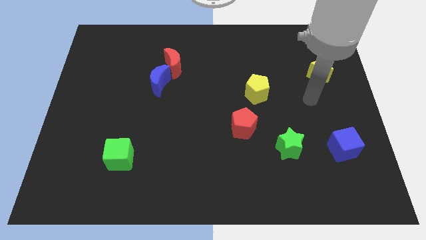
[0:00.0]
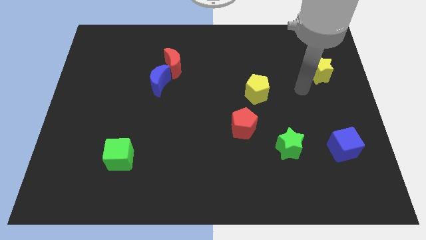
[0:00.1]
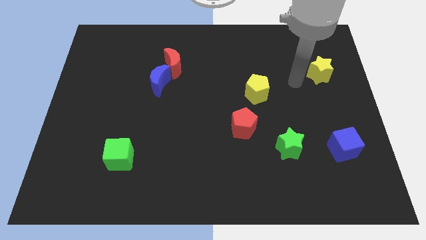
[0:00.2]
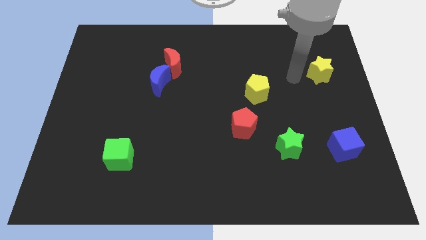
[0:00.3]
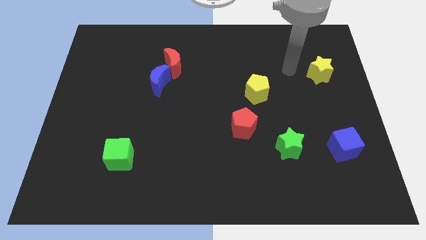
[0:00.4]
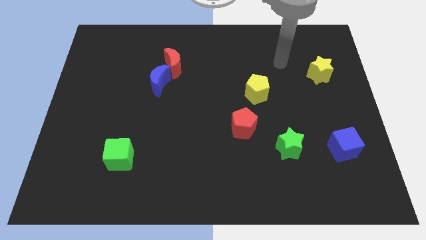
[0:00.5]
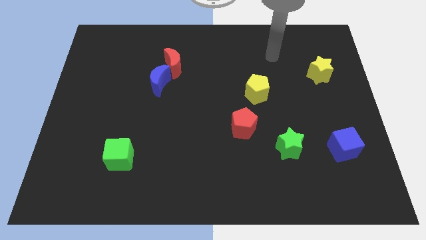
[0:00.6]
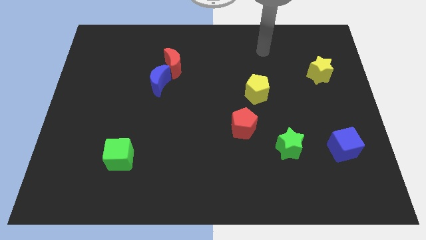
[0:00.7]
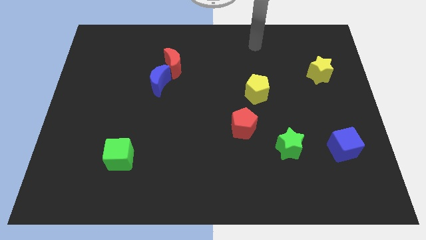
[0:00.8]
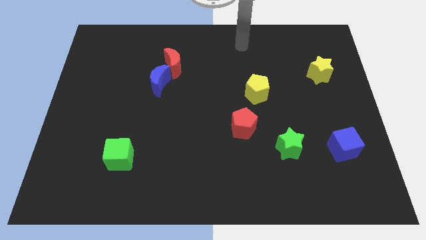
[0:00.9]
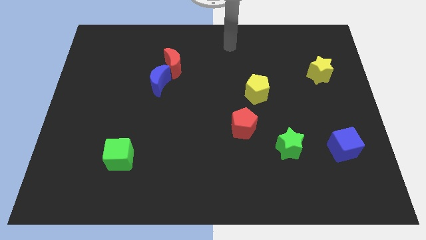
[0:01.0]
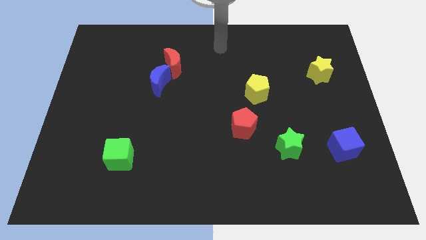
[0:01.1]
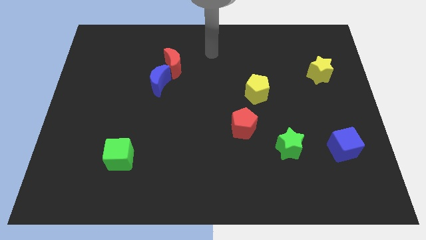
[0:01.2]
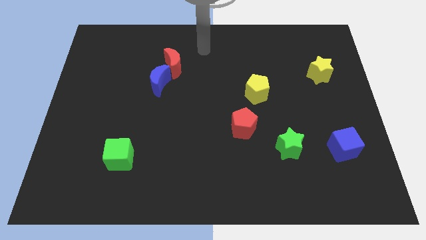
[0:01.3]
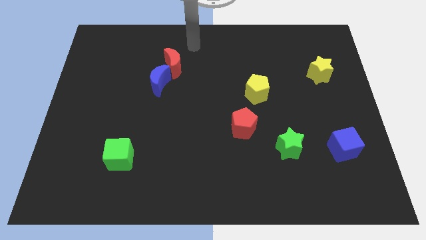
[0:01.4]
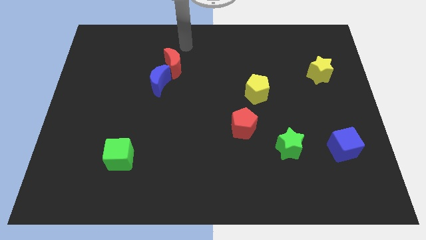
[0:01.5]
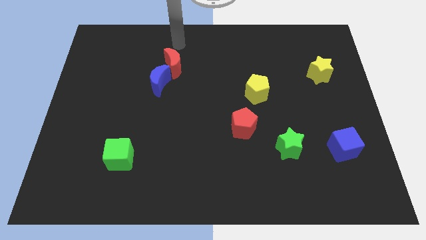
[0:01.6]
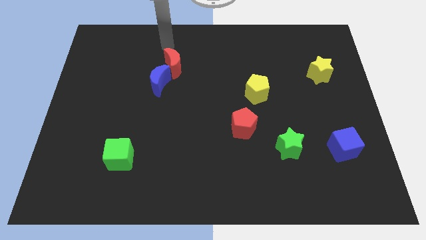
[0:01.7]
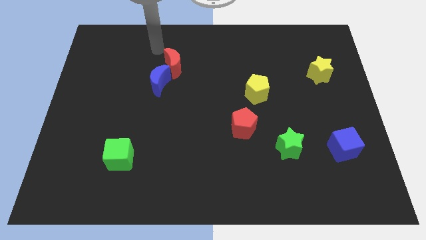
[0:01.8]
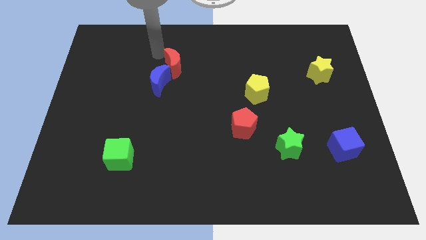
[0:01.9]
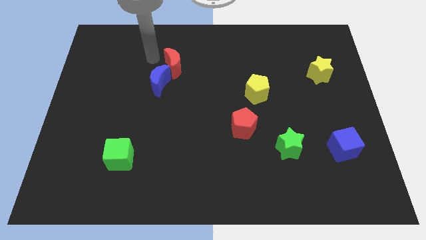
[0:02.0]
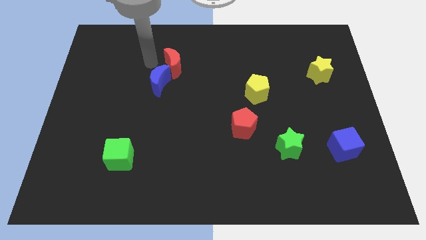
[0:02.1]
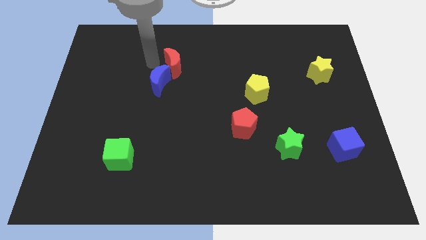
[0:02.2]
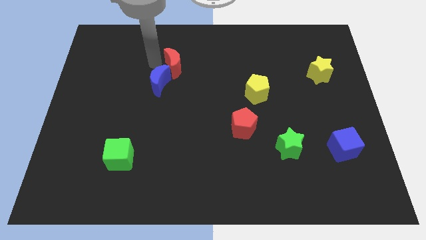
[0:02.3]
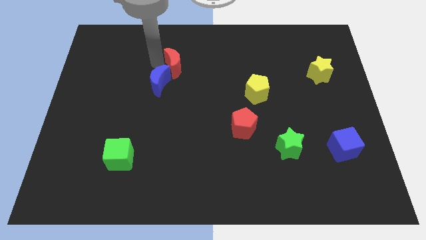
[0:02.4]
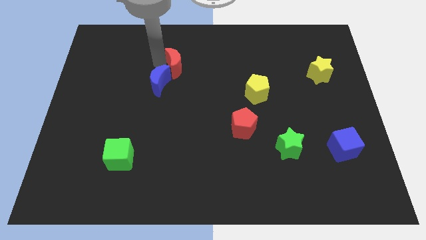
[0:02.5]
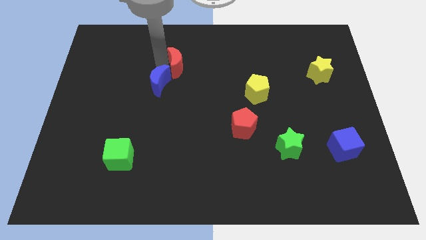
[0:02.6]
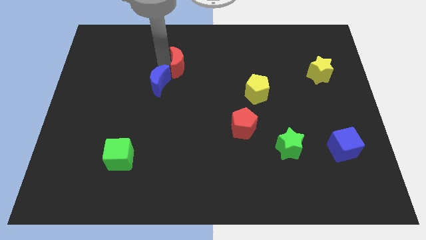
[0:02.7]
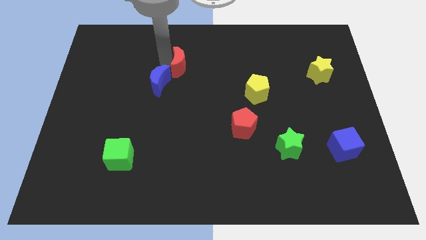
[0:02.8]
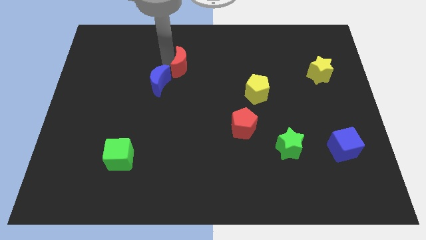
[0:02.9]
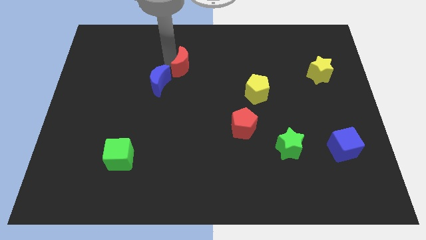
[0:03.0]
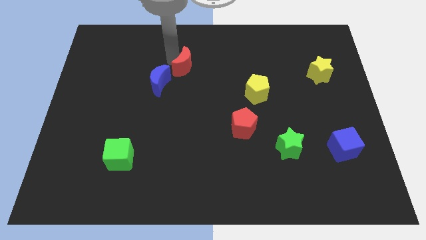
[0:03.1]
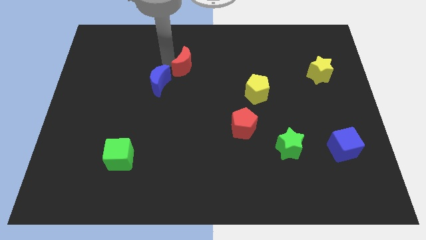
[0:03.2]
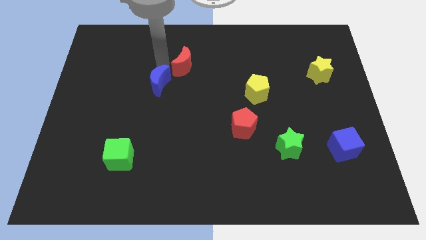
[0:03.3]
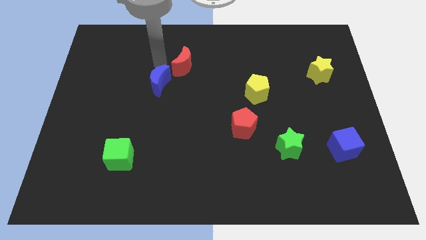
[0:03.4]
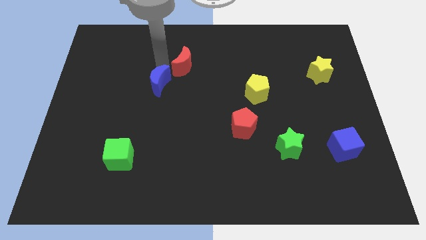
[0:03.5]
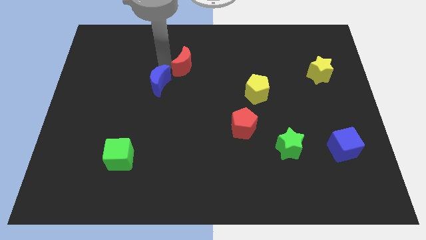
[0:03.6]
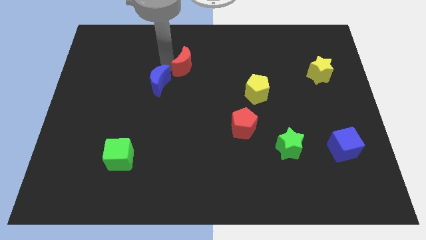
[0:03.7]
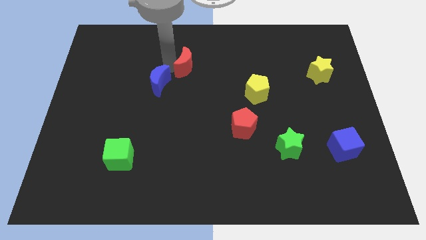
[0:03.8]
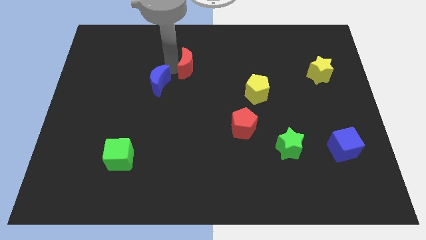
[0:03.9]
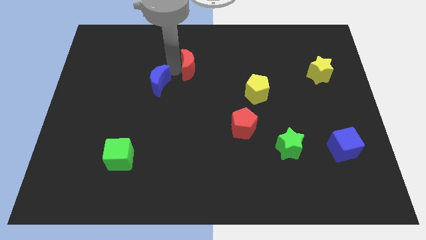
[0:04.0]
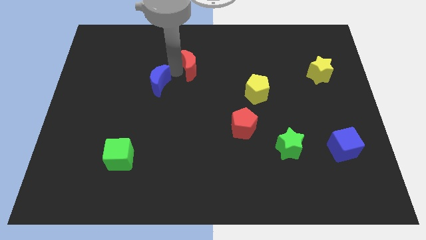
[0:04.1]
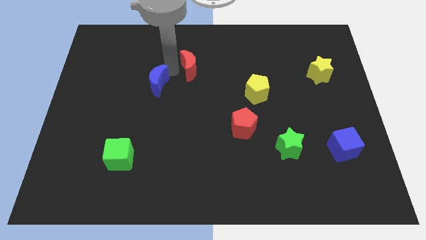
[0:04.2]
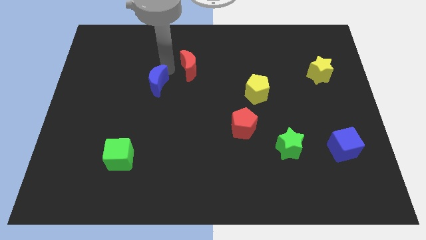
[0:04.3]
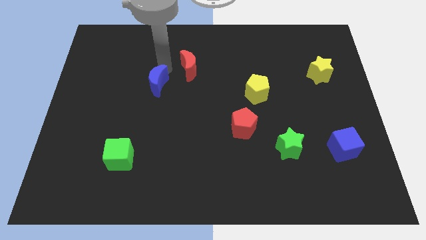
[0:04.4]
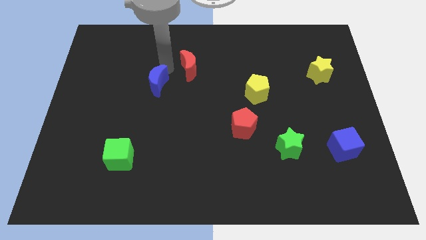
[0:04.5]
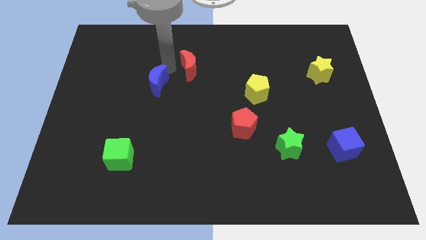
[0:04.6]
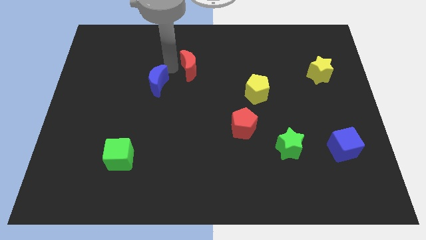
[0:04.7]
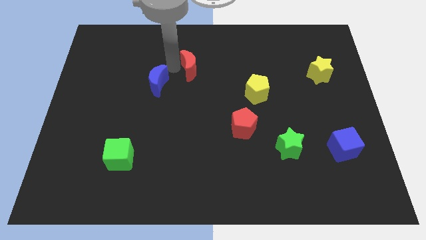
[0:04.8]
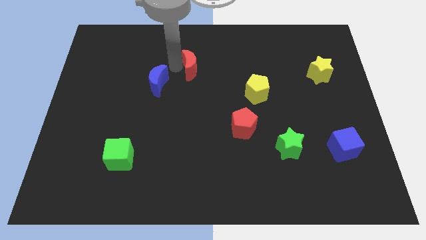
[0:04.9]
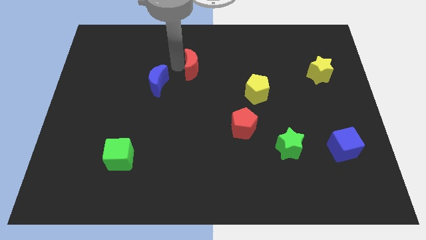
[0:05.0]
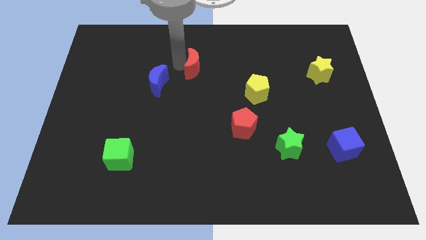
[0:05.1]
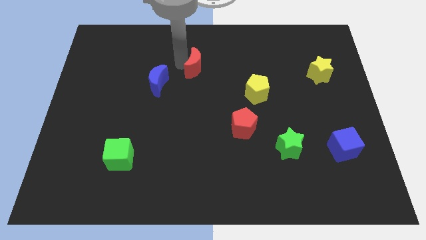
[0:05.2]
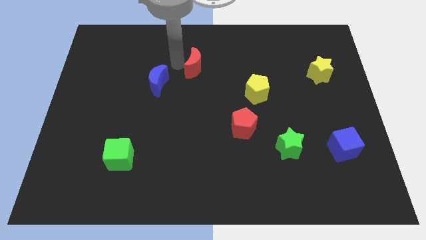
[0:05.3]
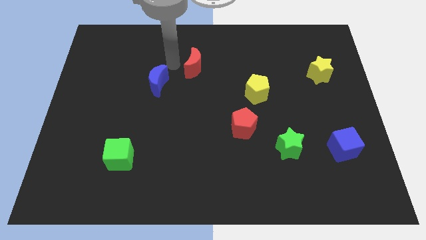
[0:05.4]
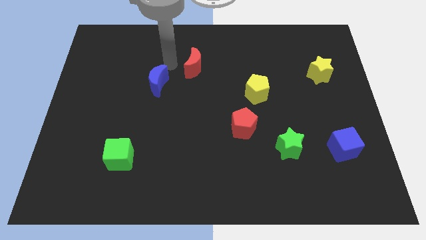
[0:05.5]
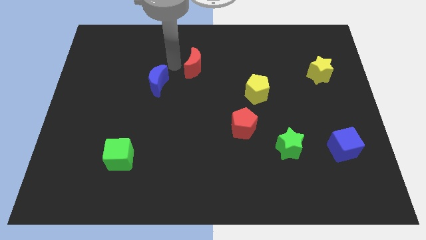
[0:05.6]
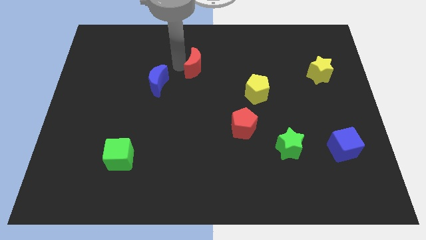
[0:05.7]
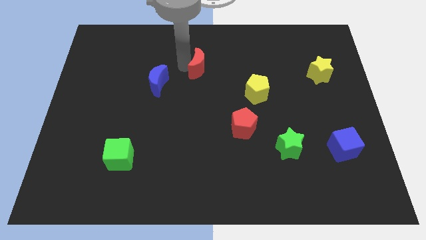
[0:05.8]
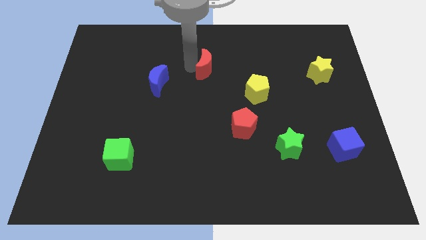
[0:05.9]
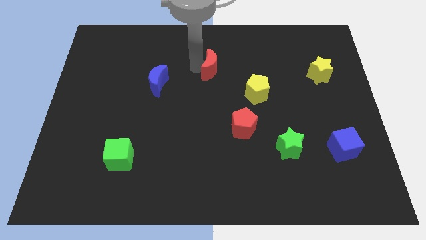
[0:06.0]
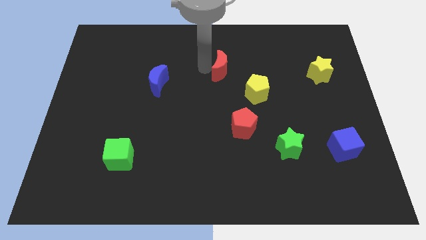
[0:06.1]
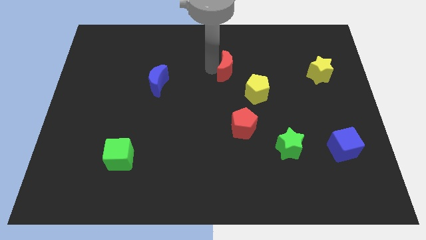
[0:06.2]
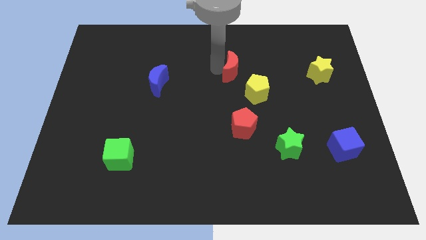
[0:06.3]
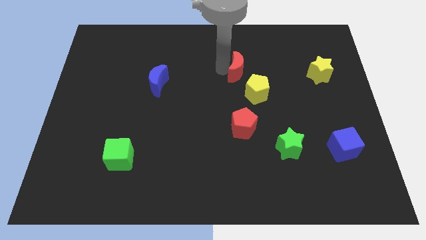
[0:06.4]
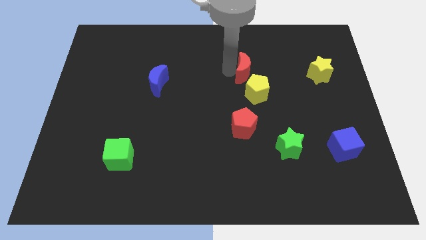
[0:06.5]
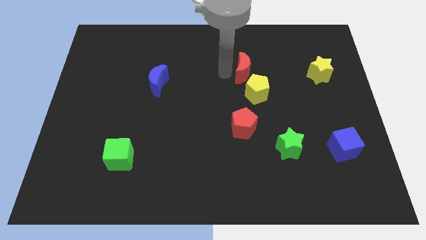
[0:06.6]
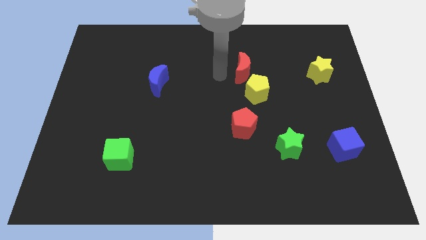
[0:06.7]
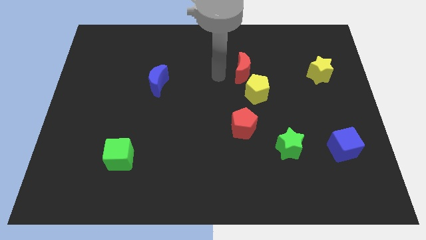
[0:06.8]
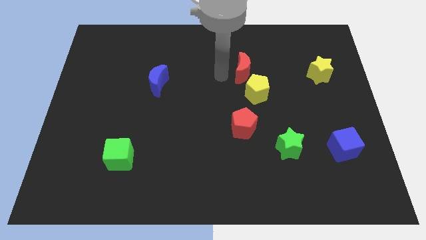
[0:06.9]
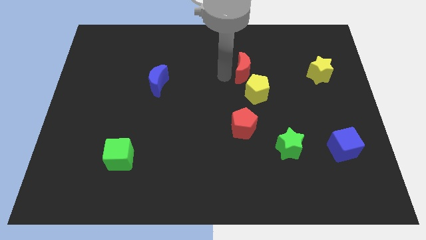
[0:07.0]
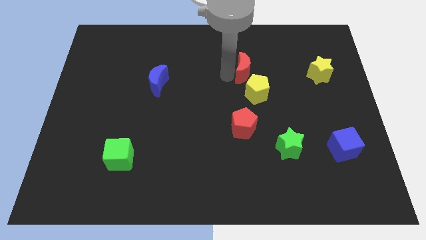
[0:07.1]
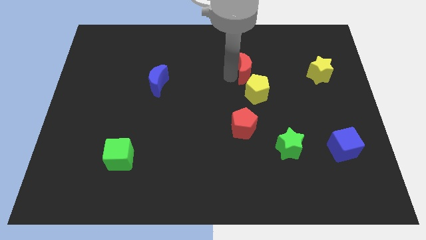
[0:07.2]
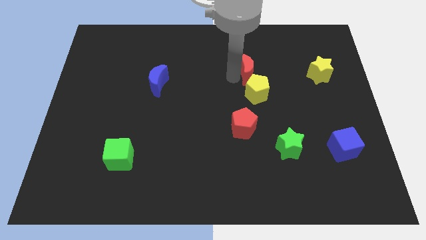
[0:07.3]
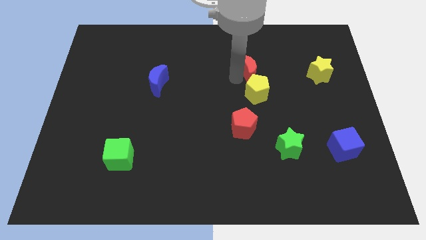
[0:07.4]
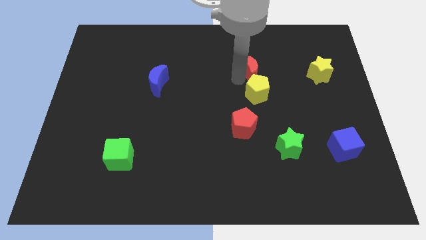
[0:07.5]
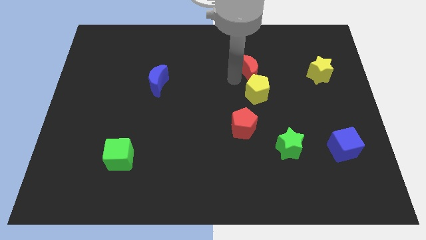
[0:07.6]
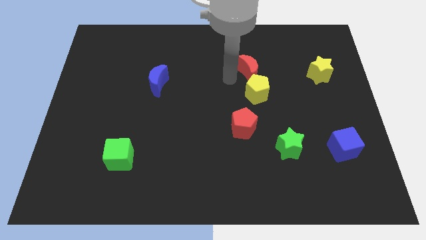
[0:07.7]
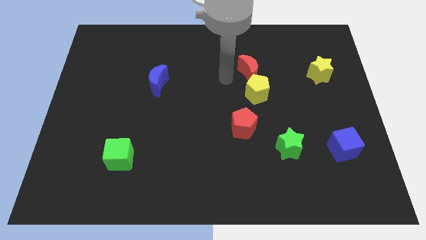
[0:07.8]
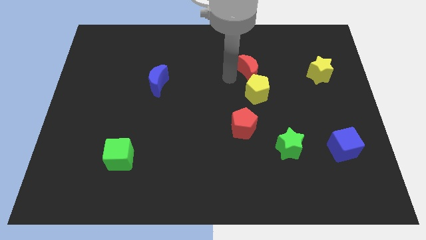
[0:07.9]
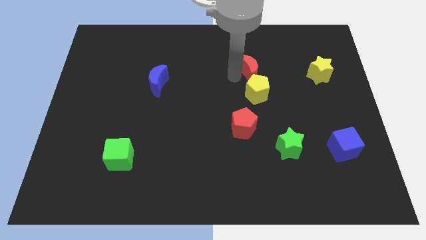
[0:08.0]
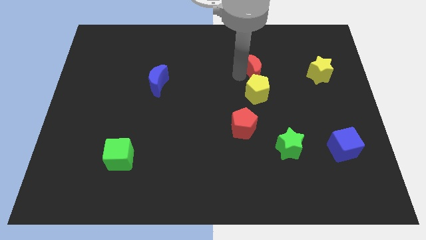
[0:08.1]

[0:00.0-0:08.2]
move the red moon right
